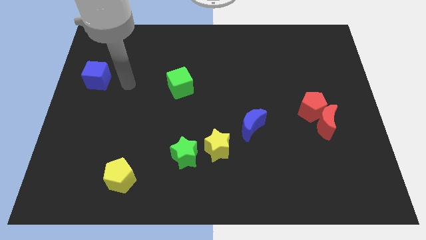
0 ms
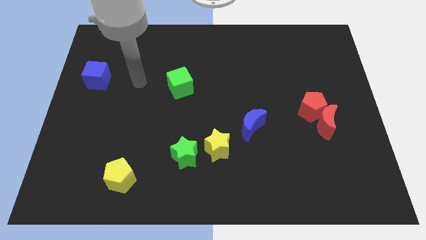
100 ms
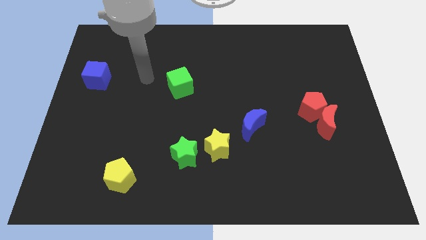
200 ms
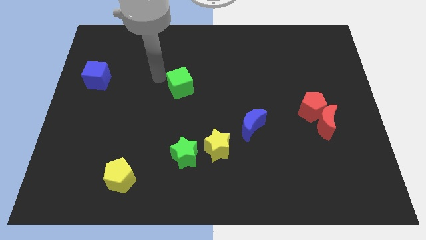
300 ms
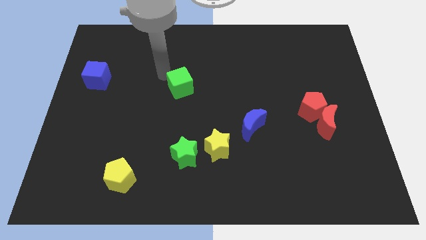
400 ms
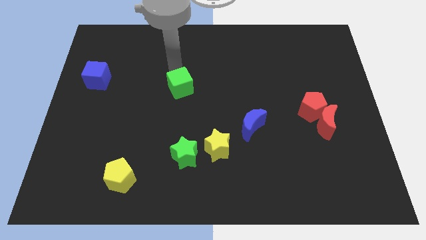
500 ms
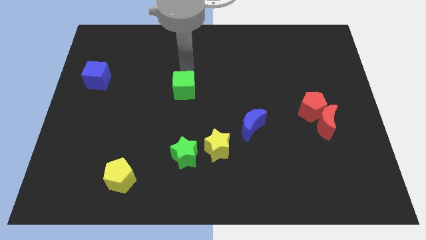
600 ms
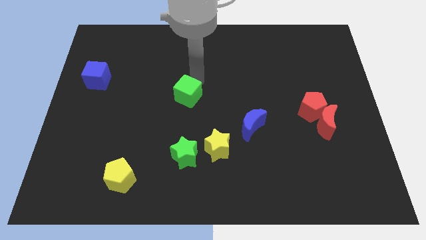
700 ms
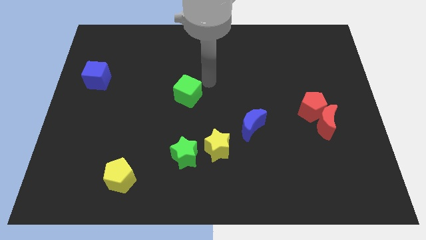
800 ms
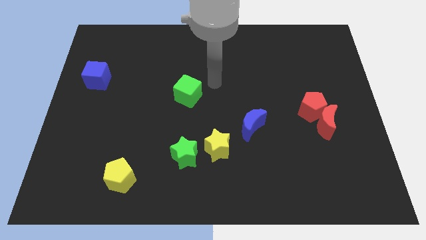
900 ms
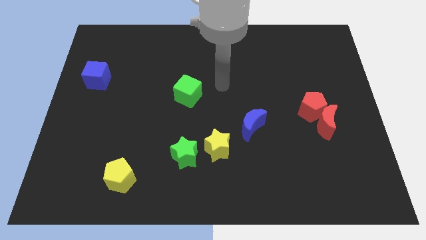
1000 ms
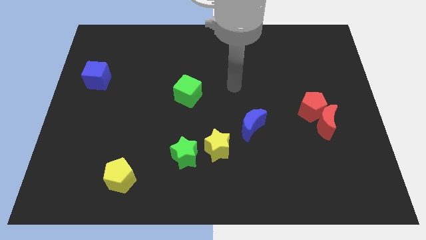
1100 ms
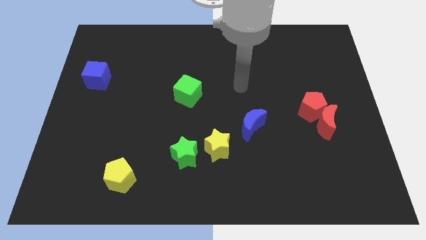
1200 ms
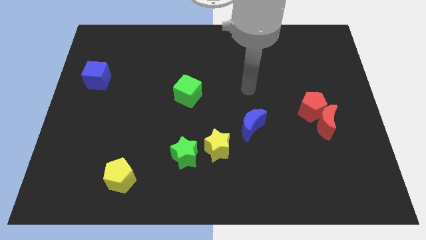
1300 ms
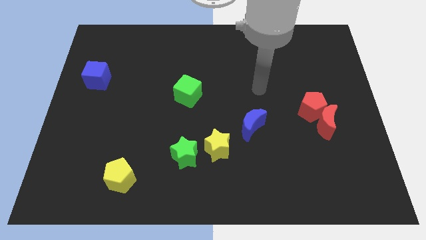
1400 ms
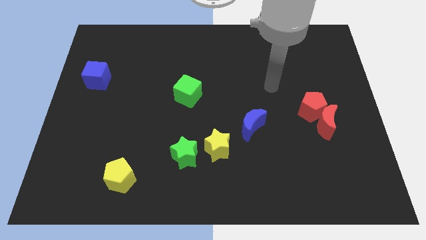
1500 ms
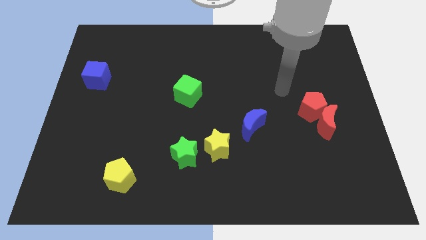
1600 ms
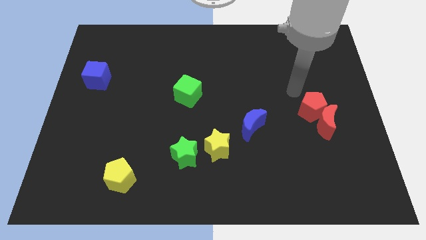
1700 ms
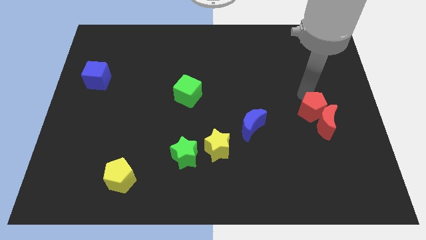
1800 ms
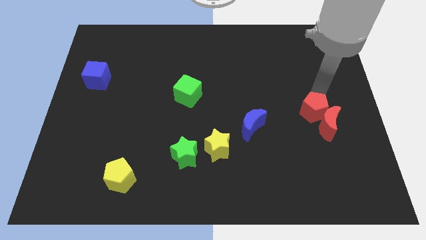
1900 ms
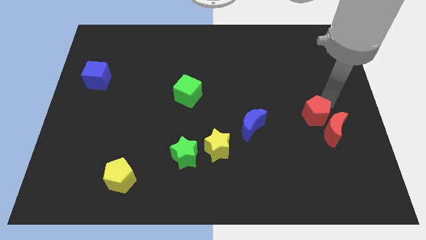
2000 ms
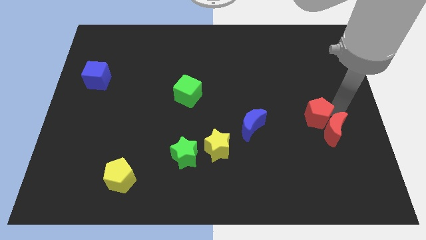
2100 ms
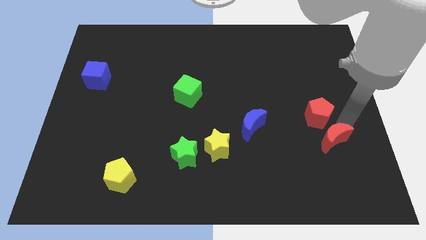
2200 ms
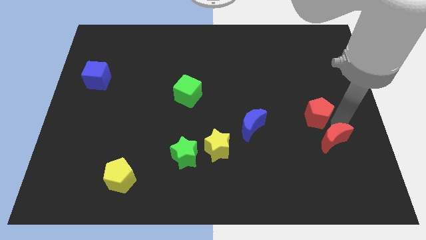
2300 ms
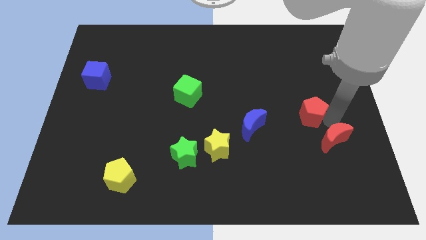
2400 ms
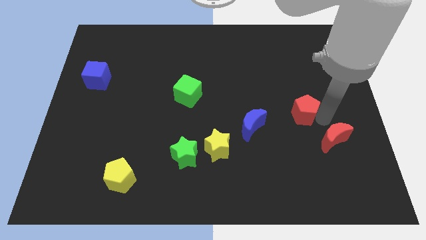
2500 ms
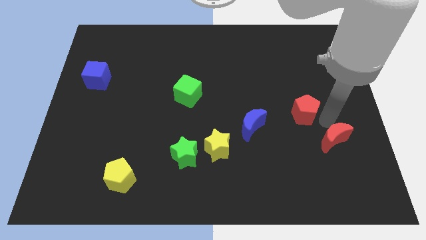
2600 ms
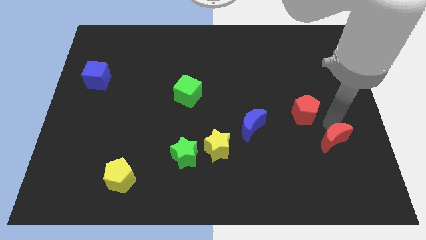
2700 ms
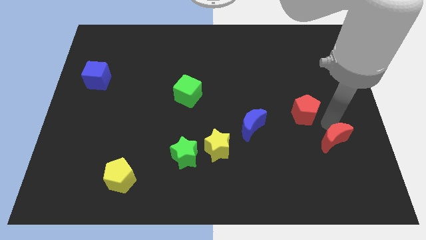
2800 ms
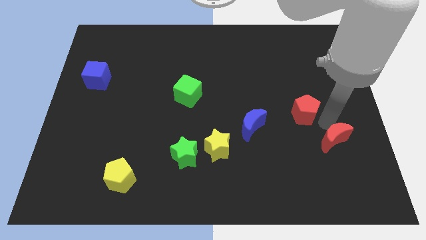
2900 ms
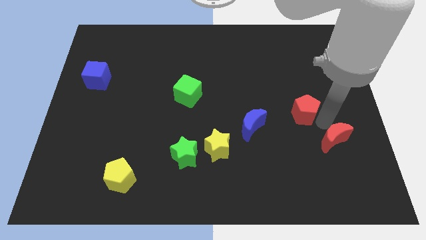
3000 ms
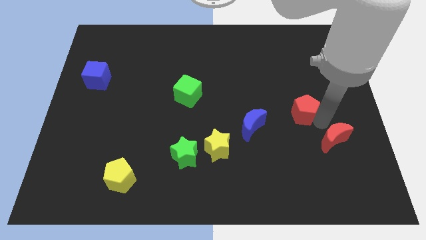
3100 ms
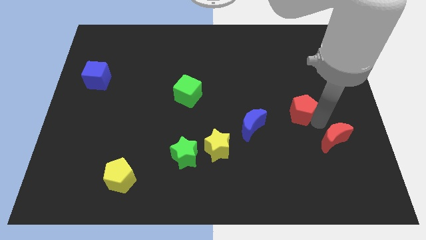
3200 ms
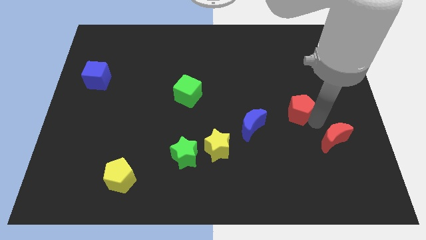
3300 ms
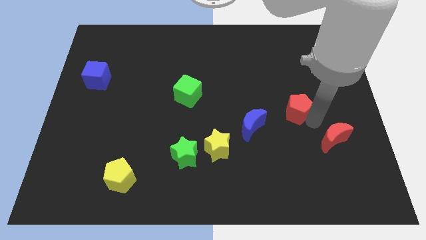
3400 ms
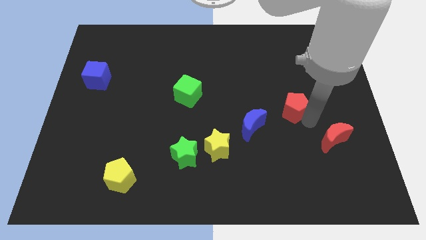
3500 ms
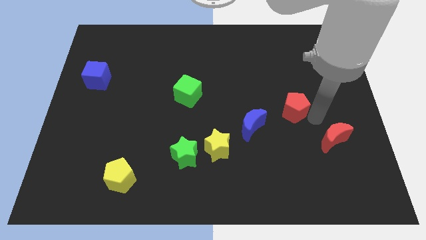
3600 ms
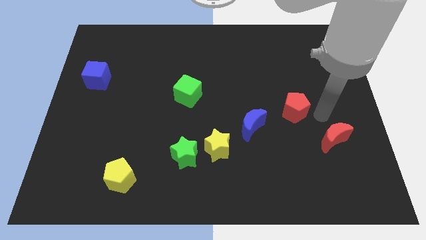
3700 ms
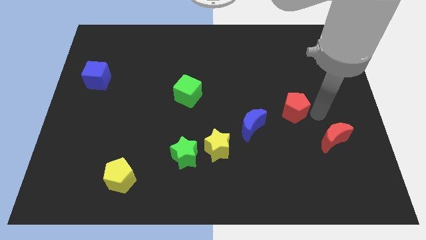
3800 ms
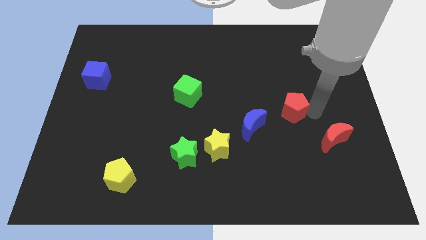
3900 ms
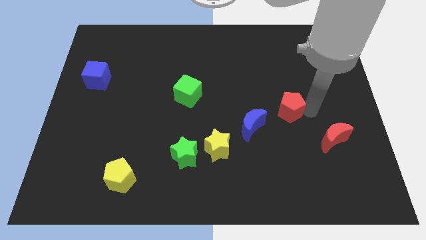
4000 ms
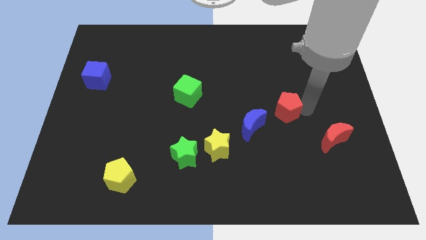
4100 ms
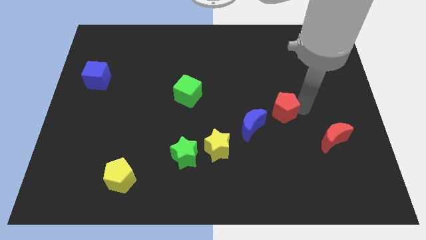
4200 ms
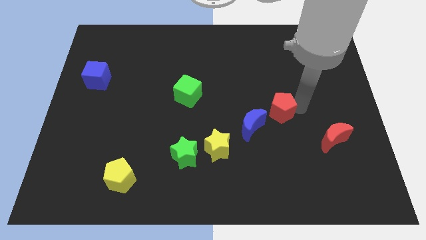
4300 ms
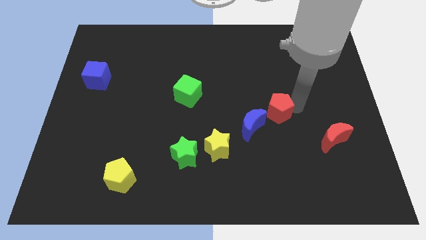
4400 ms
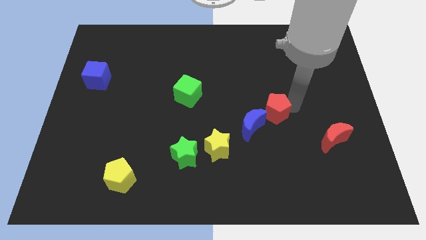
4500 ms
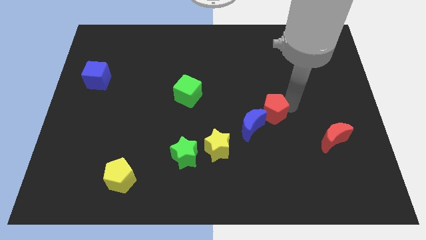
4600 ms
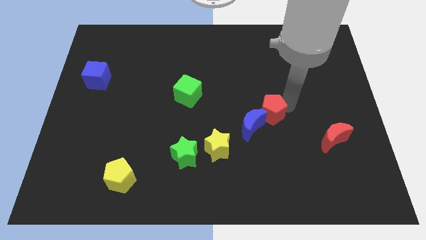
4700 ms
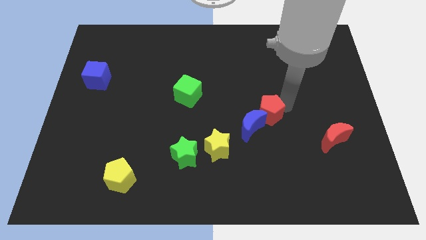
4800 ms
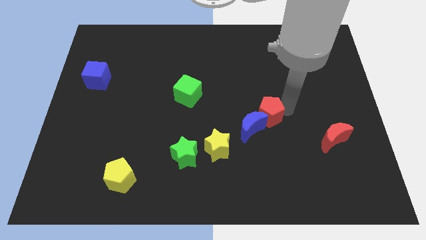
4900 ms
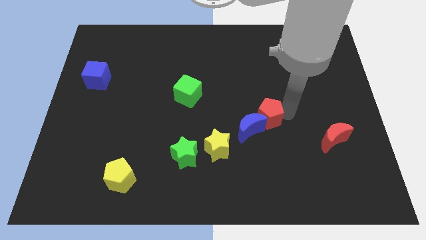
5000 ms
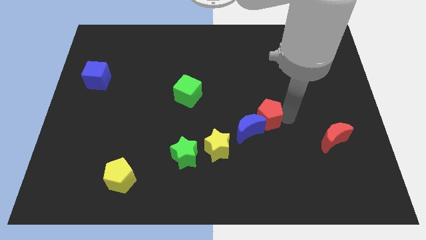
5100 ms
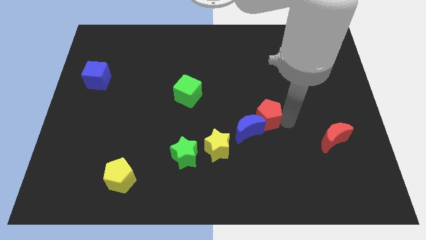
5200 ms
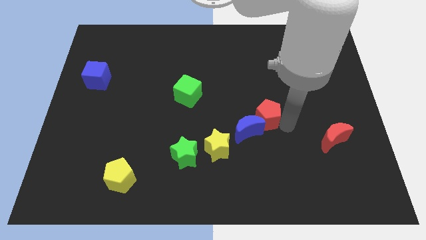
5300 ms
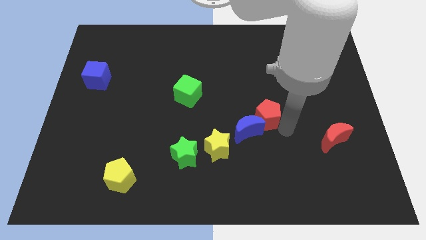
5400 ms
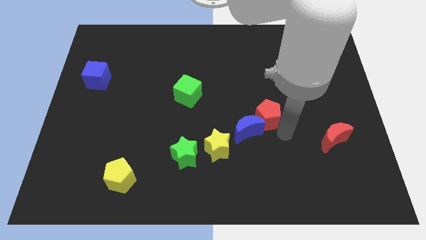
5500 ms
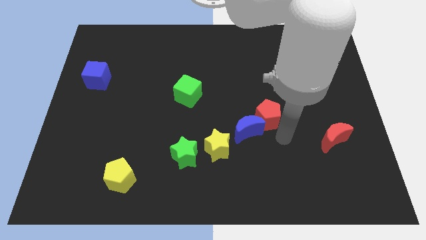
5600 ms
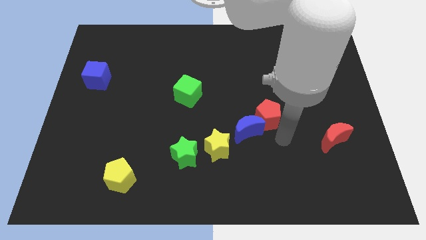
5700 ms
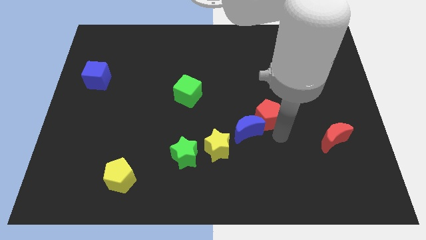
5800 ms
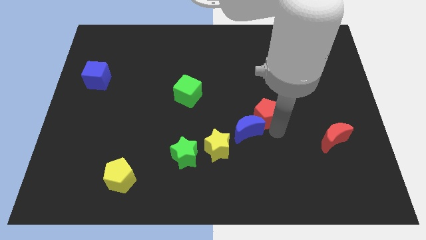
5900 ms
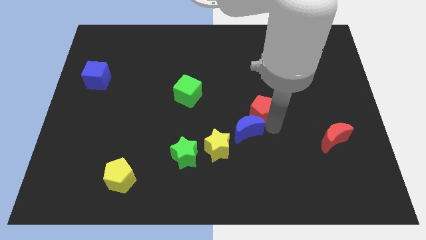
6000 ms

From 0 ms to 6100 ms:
slide the red pentagon to the center of the board
